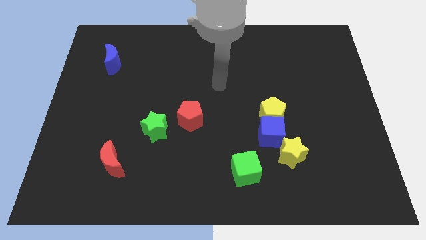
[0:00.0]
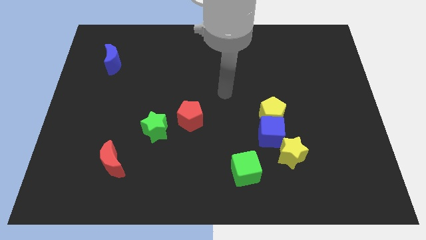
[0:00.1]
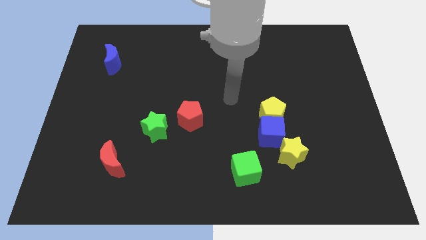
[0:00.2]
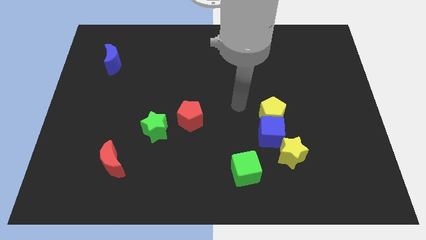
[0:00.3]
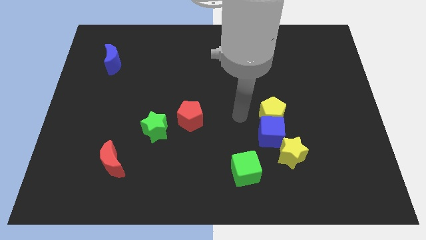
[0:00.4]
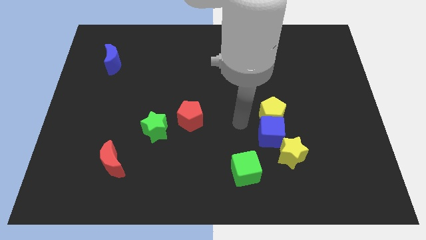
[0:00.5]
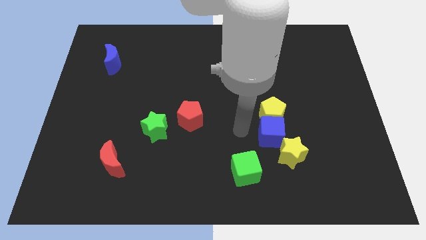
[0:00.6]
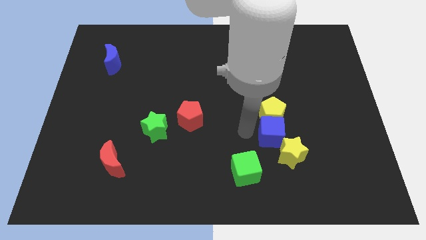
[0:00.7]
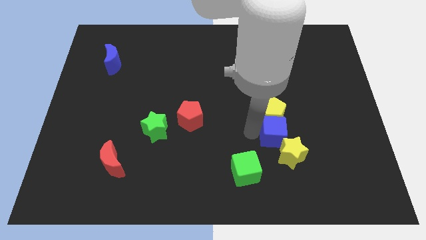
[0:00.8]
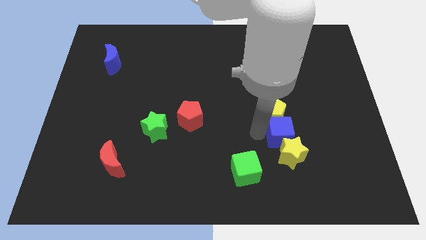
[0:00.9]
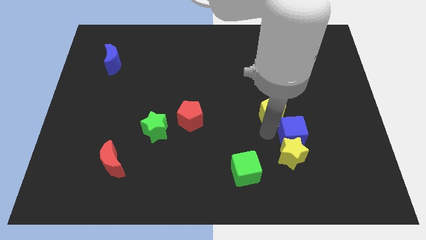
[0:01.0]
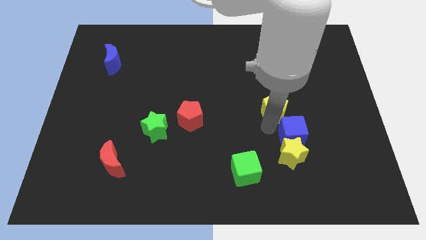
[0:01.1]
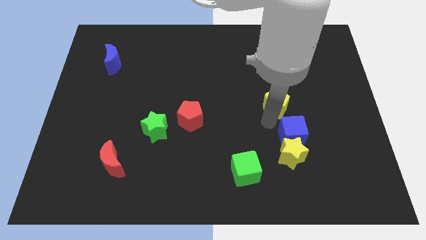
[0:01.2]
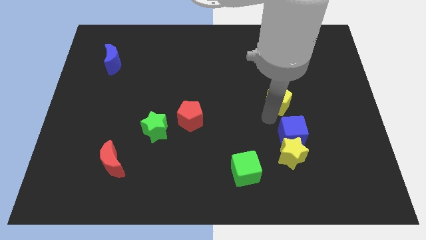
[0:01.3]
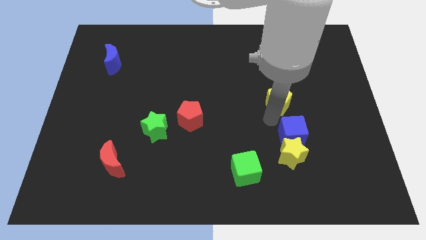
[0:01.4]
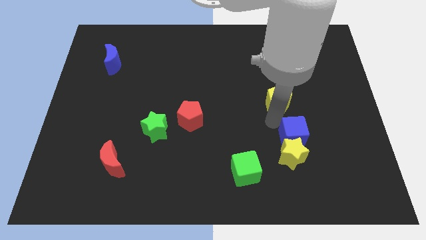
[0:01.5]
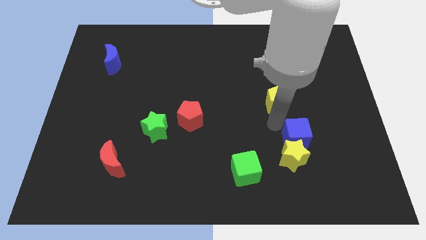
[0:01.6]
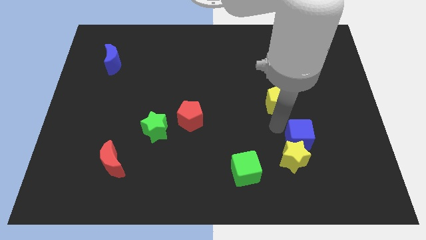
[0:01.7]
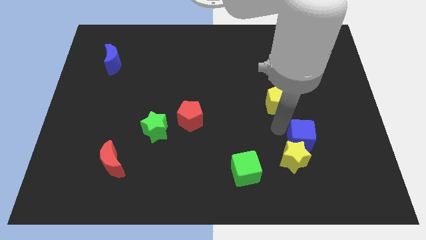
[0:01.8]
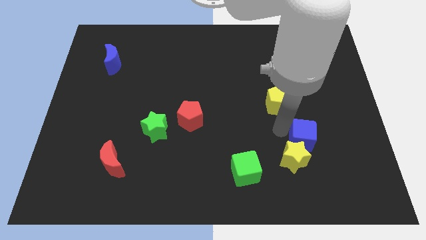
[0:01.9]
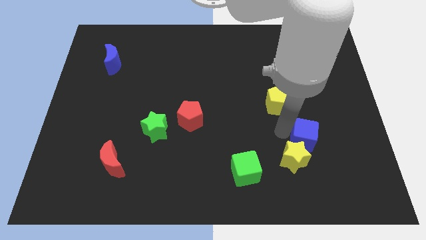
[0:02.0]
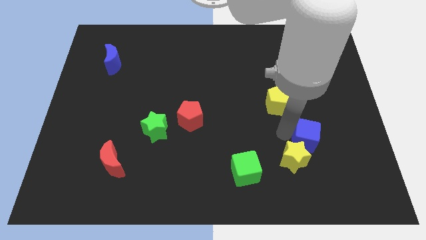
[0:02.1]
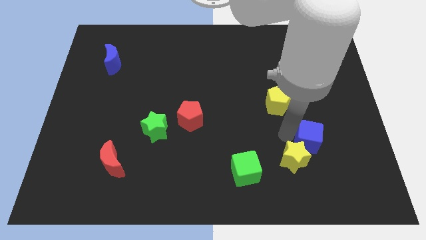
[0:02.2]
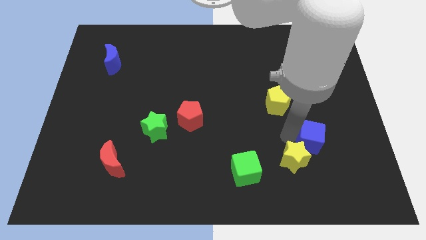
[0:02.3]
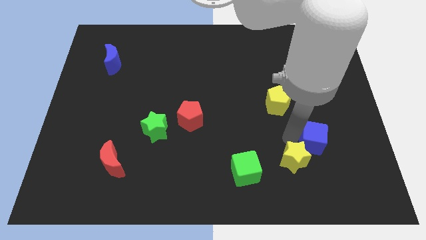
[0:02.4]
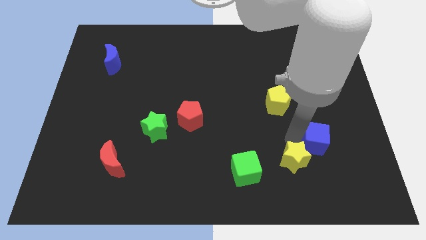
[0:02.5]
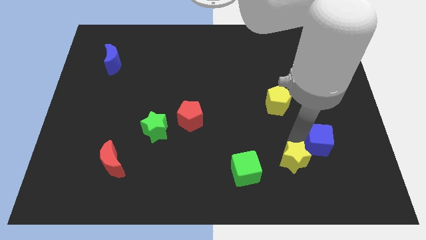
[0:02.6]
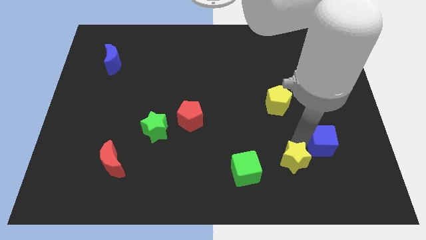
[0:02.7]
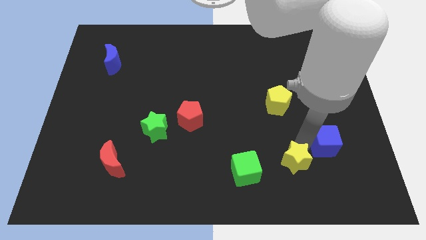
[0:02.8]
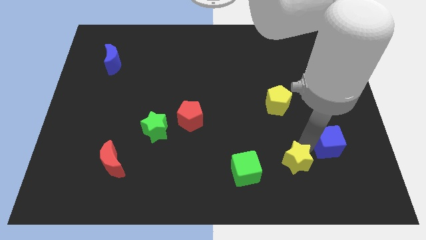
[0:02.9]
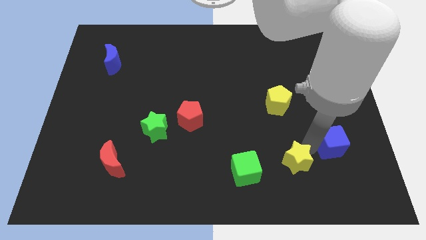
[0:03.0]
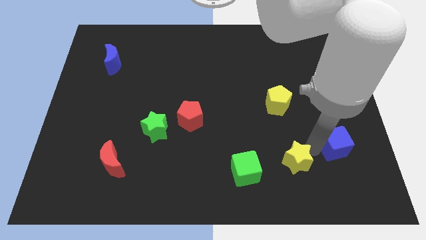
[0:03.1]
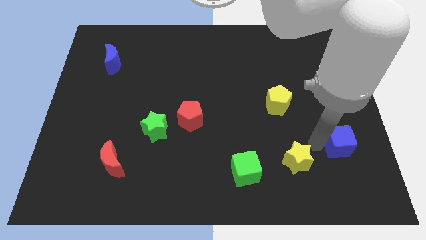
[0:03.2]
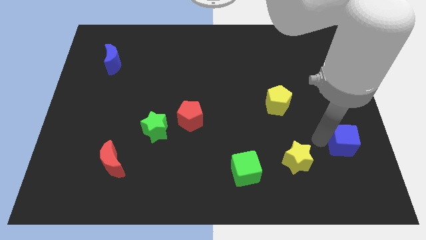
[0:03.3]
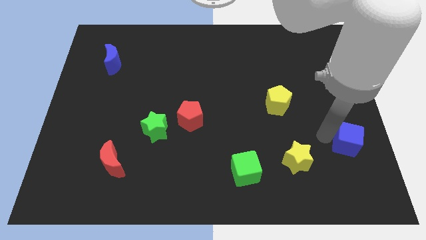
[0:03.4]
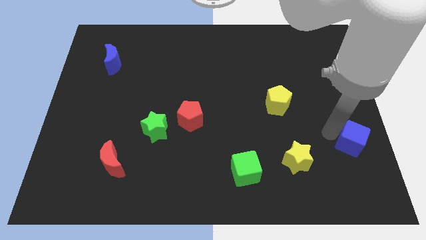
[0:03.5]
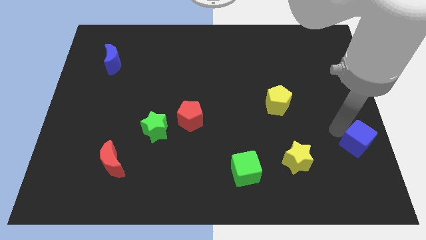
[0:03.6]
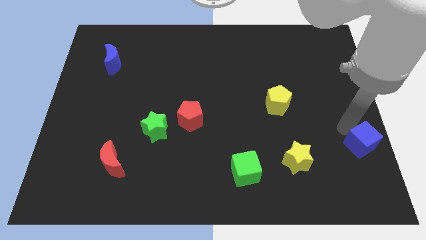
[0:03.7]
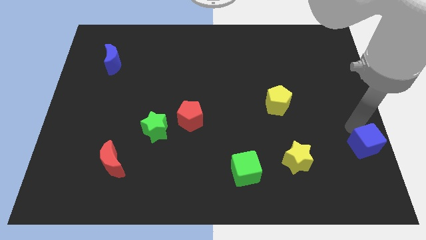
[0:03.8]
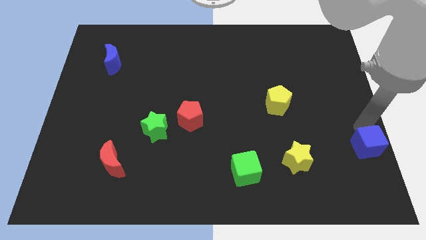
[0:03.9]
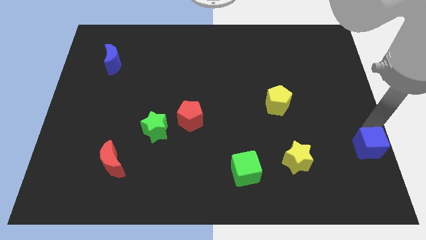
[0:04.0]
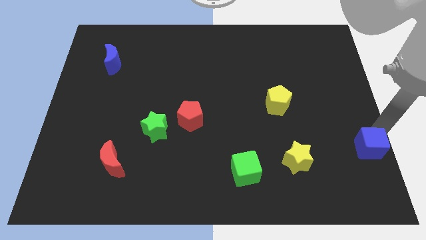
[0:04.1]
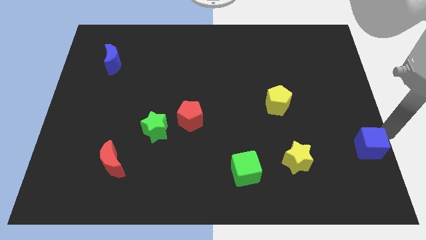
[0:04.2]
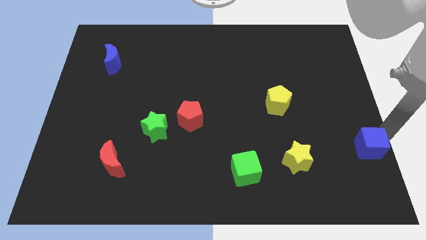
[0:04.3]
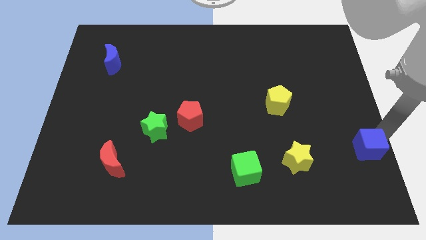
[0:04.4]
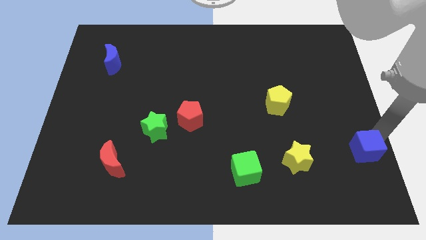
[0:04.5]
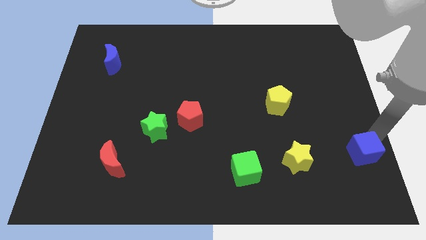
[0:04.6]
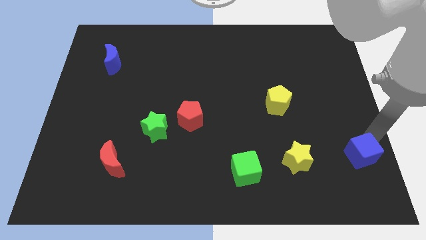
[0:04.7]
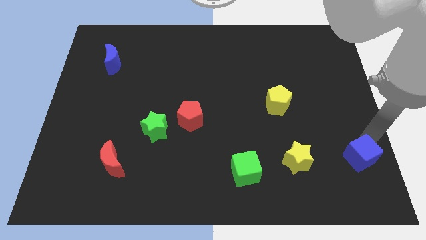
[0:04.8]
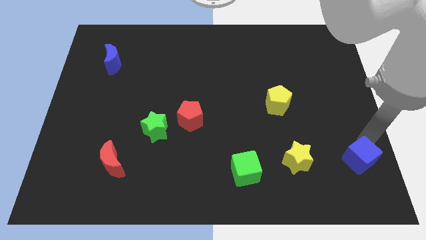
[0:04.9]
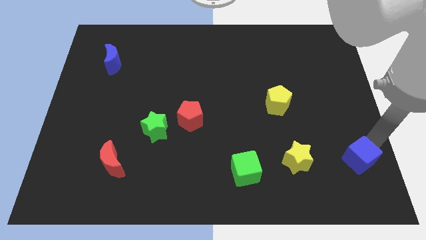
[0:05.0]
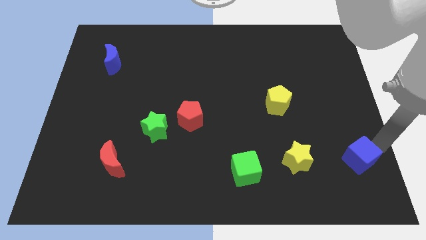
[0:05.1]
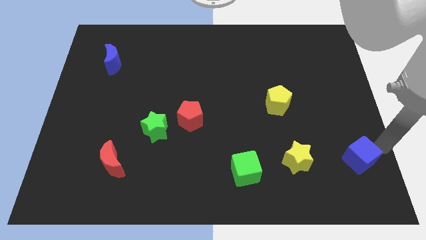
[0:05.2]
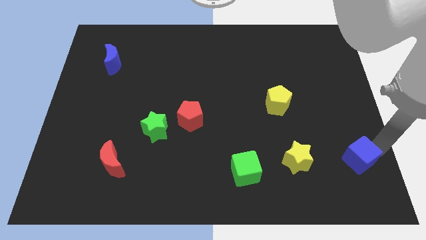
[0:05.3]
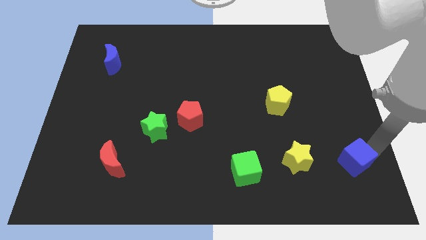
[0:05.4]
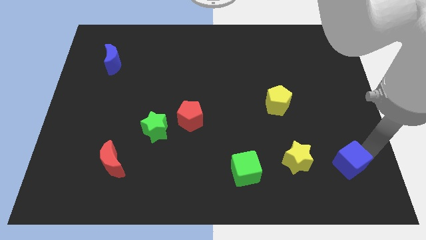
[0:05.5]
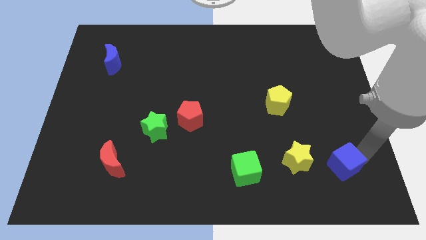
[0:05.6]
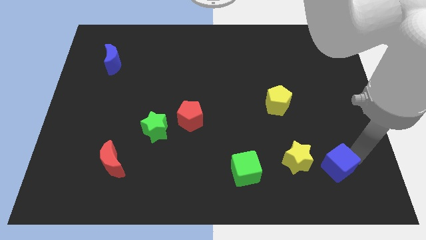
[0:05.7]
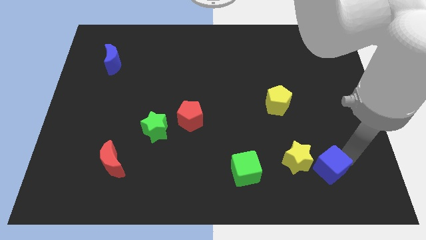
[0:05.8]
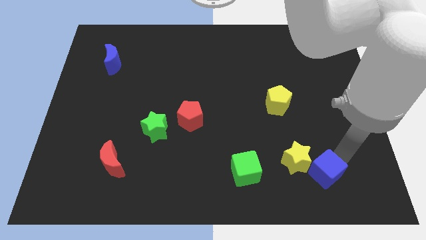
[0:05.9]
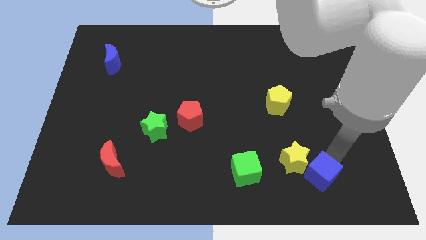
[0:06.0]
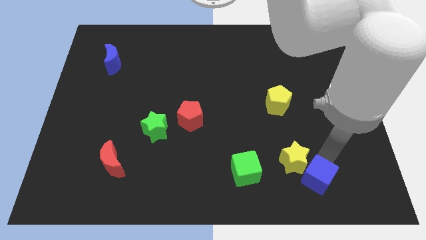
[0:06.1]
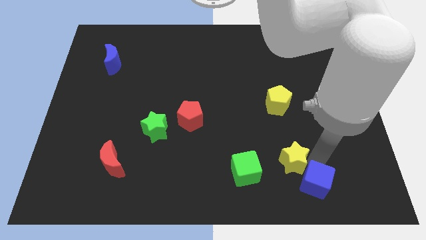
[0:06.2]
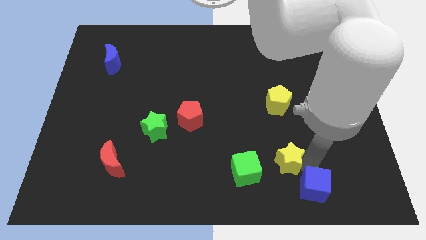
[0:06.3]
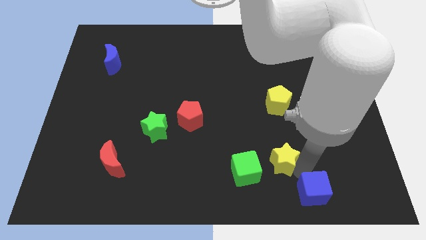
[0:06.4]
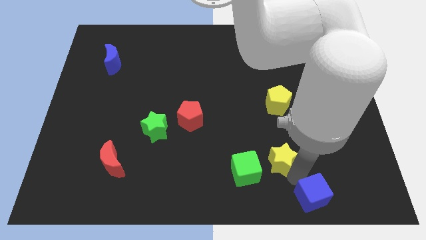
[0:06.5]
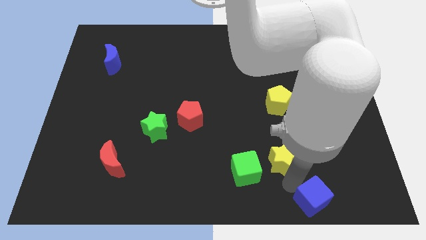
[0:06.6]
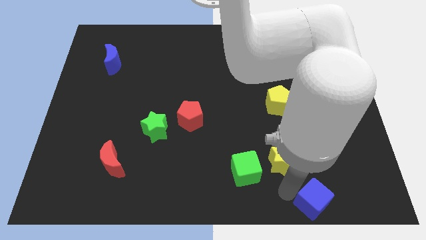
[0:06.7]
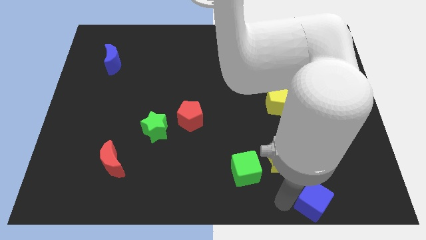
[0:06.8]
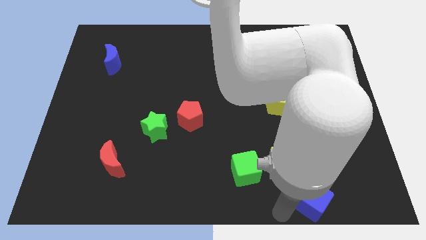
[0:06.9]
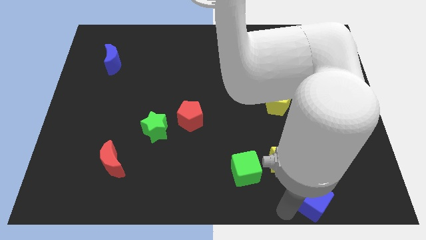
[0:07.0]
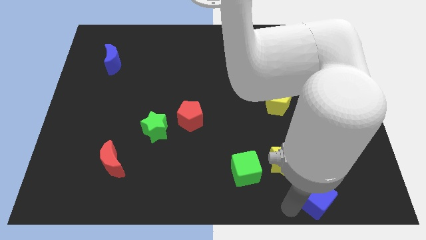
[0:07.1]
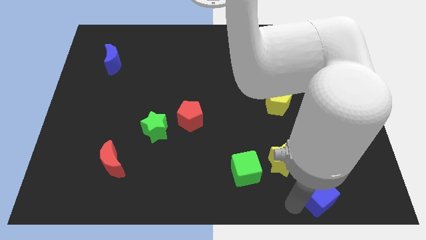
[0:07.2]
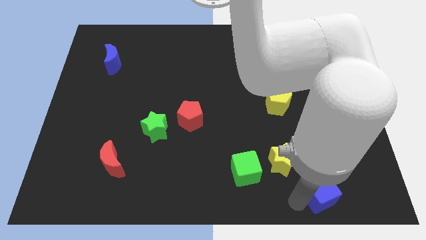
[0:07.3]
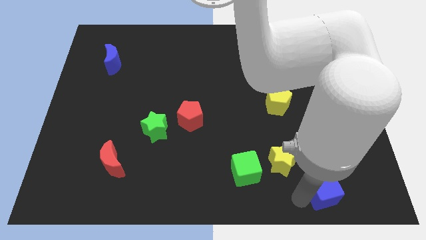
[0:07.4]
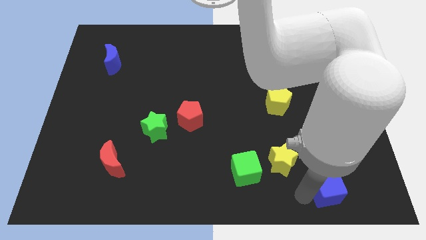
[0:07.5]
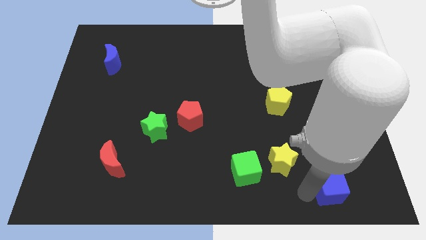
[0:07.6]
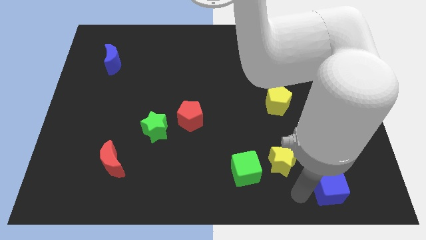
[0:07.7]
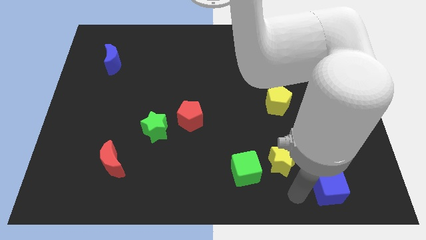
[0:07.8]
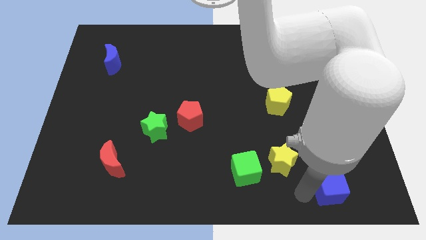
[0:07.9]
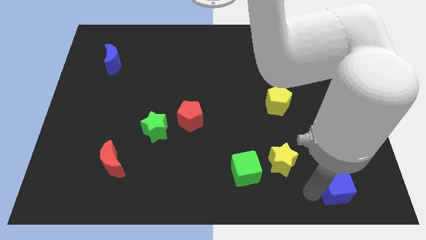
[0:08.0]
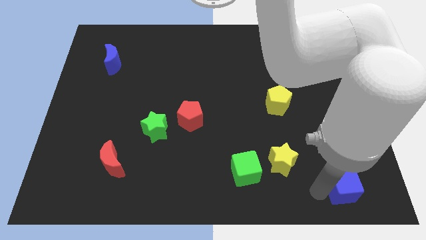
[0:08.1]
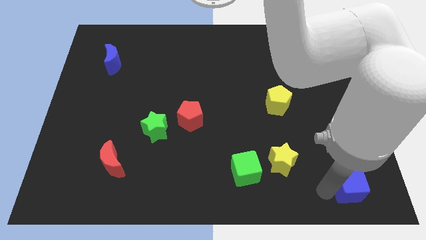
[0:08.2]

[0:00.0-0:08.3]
slide the blue cube to the bottom right
